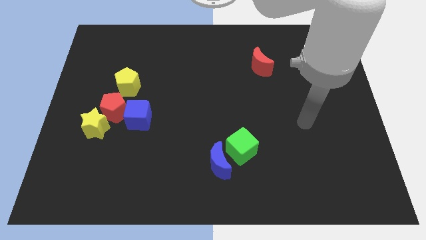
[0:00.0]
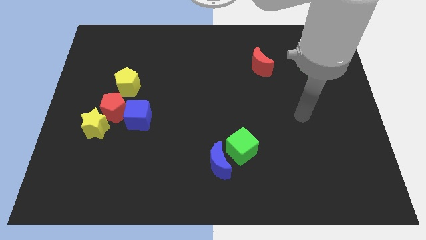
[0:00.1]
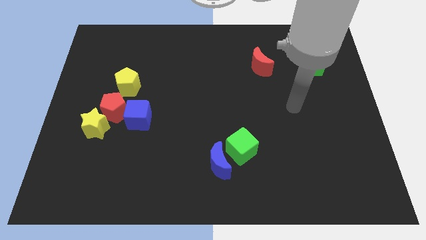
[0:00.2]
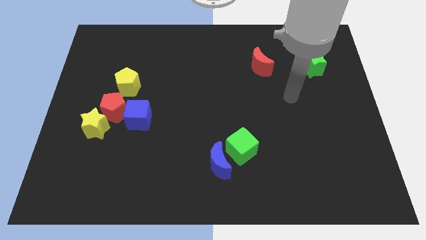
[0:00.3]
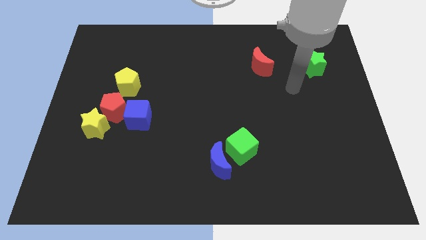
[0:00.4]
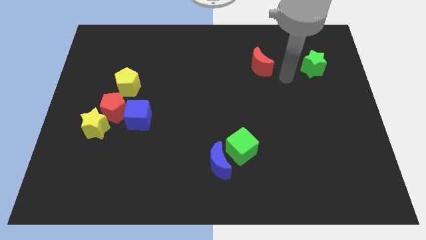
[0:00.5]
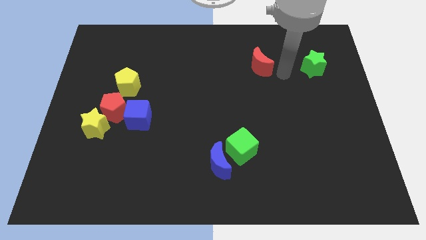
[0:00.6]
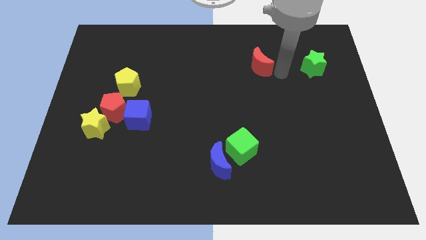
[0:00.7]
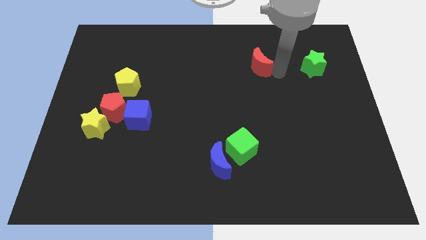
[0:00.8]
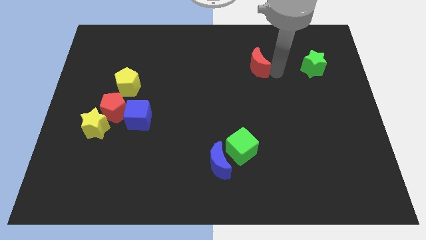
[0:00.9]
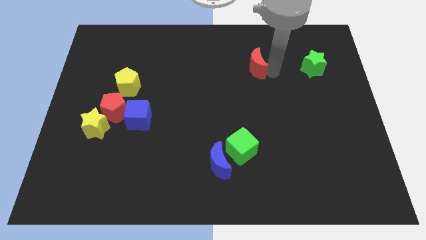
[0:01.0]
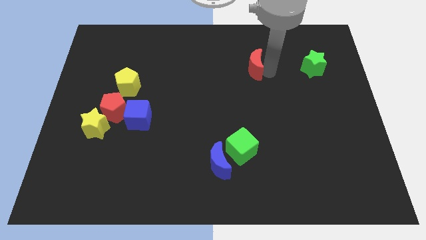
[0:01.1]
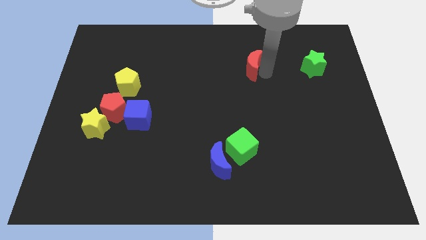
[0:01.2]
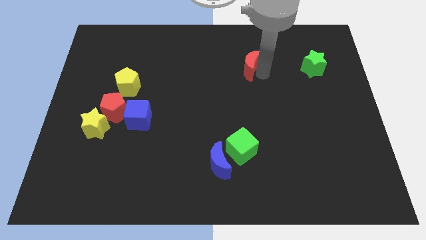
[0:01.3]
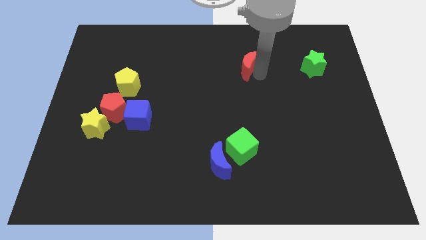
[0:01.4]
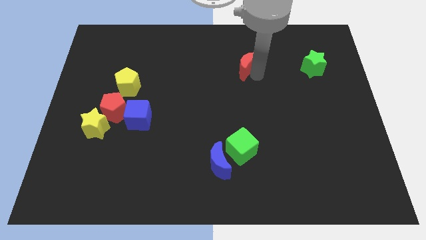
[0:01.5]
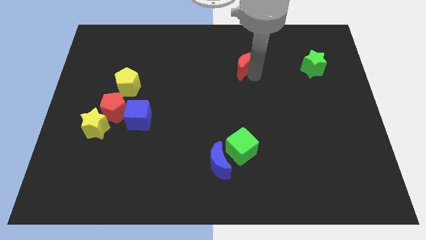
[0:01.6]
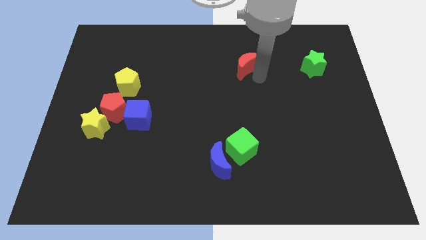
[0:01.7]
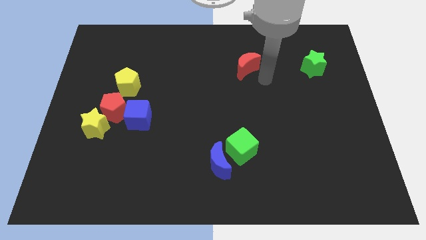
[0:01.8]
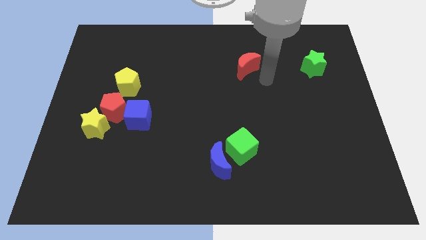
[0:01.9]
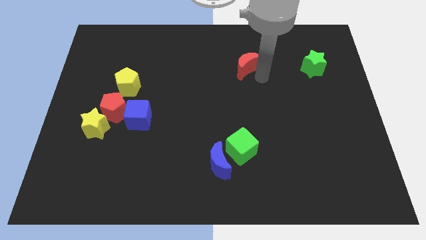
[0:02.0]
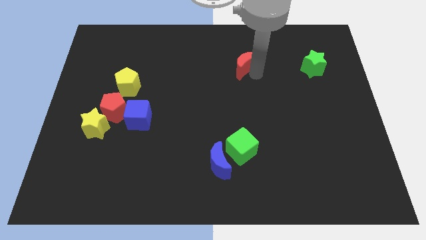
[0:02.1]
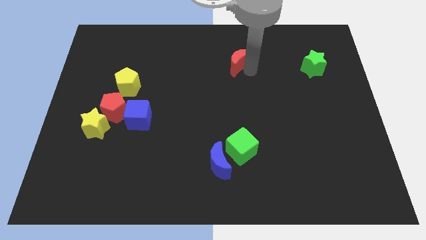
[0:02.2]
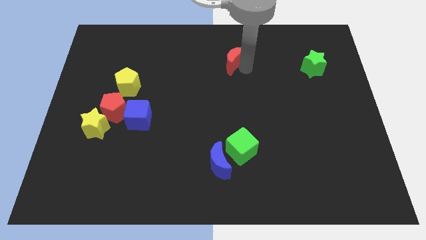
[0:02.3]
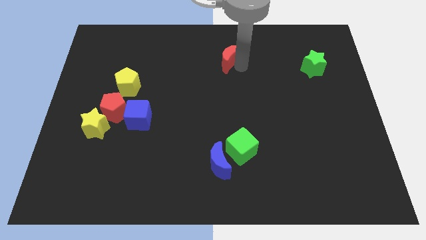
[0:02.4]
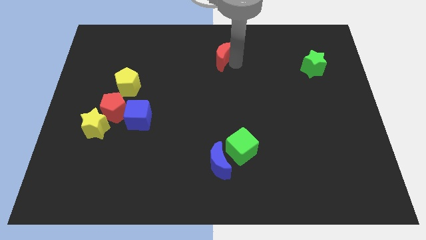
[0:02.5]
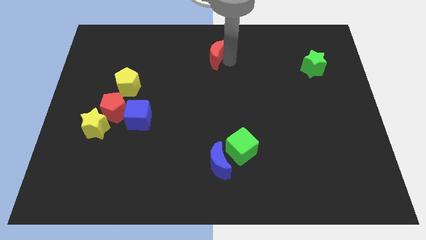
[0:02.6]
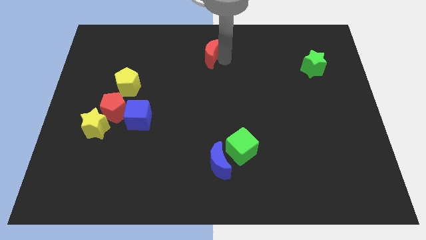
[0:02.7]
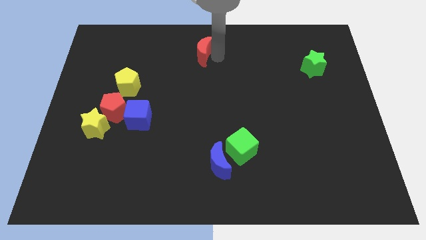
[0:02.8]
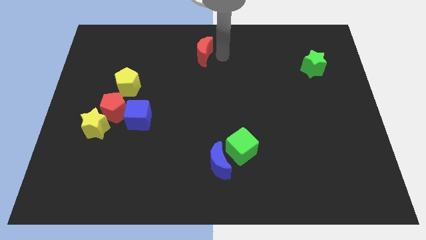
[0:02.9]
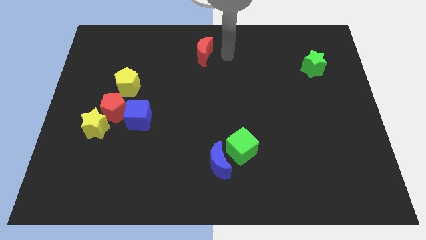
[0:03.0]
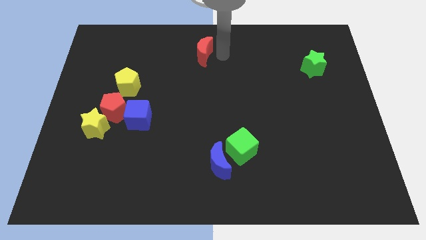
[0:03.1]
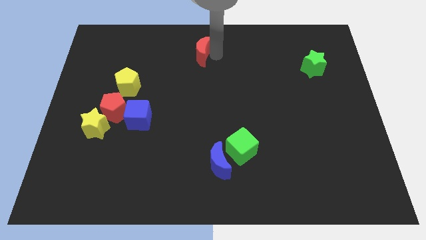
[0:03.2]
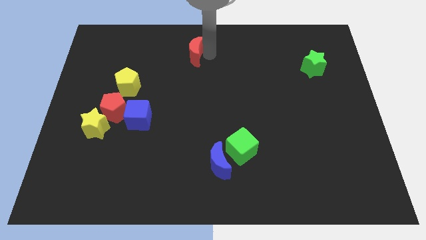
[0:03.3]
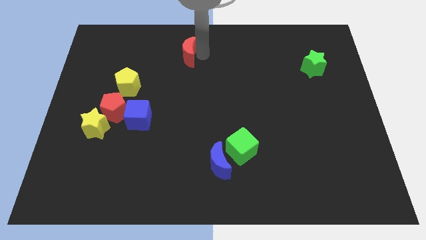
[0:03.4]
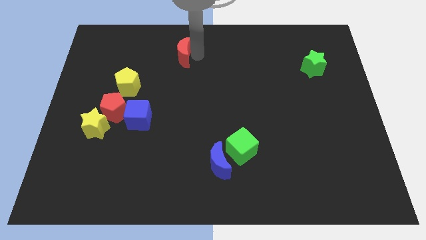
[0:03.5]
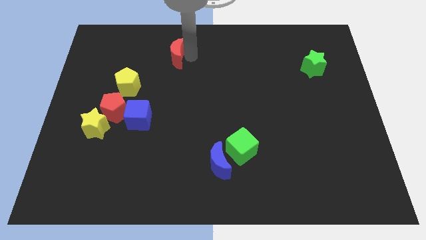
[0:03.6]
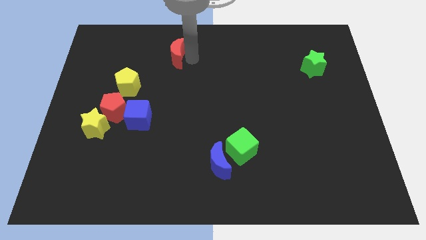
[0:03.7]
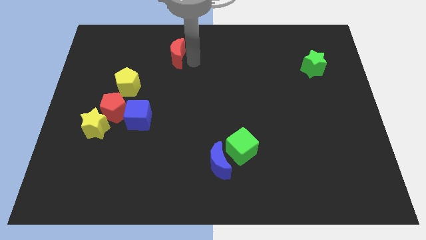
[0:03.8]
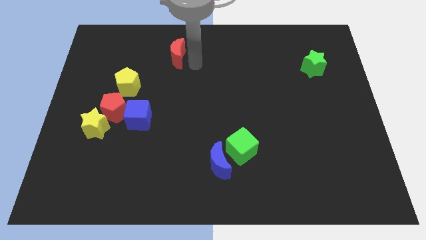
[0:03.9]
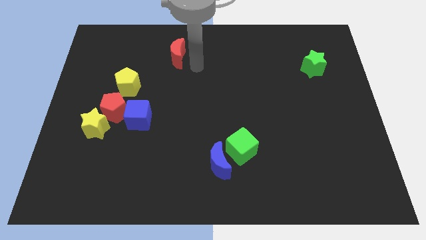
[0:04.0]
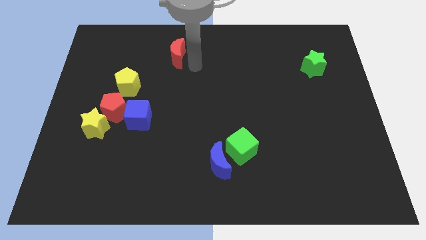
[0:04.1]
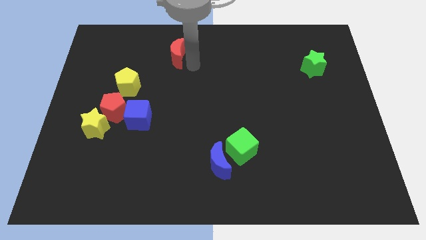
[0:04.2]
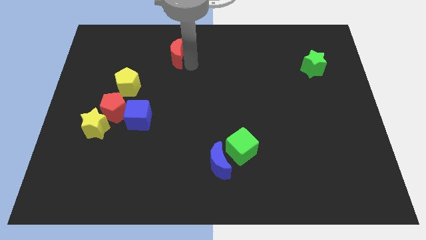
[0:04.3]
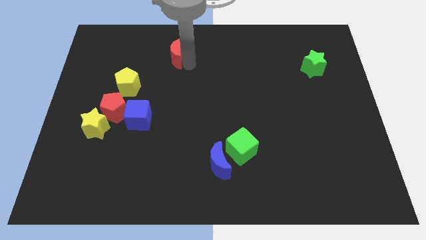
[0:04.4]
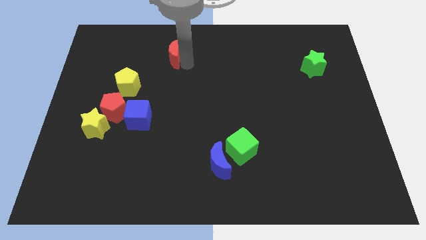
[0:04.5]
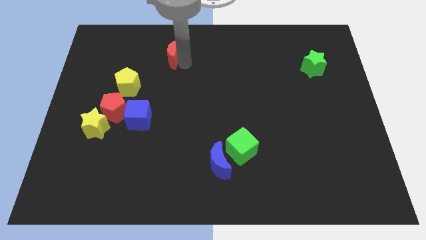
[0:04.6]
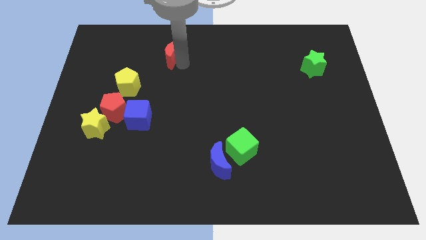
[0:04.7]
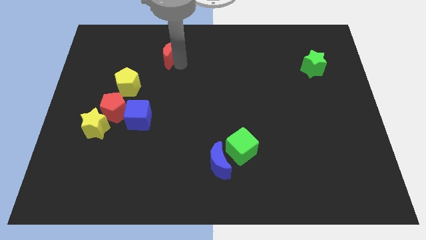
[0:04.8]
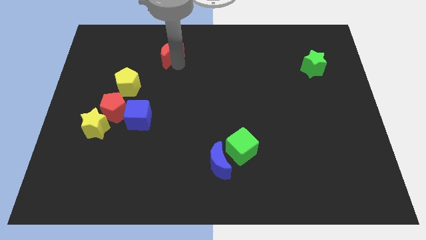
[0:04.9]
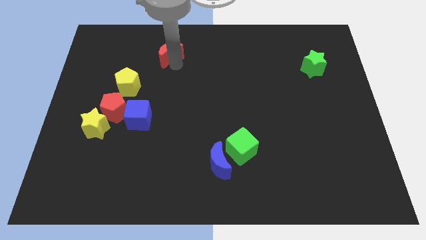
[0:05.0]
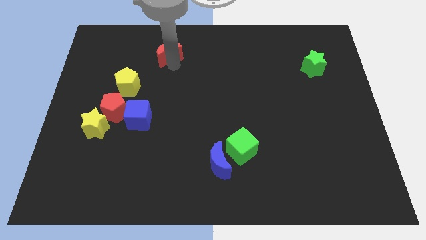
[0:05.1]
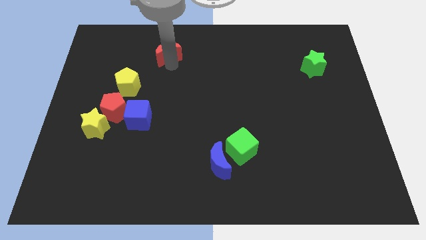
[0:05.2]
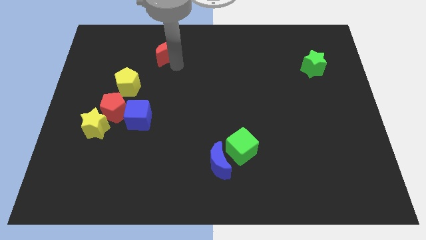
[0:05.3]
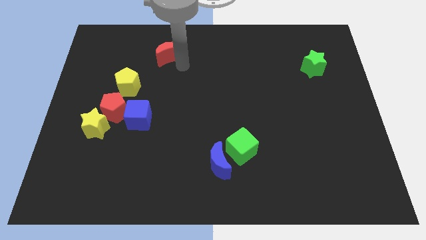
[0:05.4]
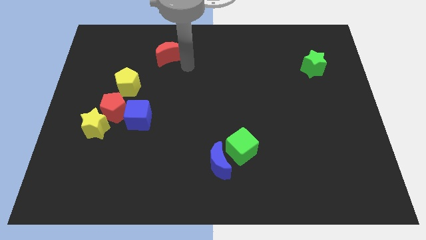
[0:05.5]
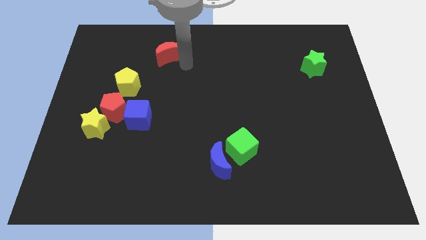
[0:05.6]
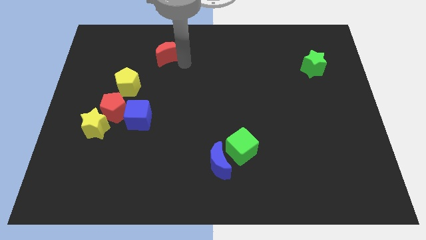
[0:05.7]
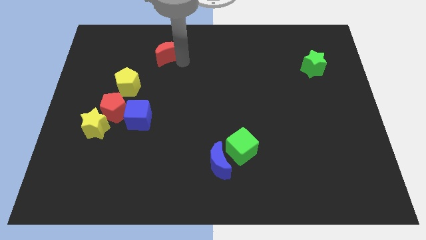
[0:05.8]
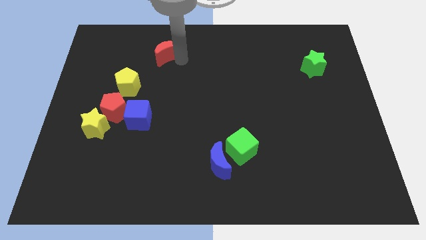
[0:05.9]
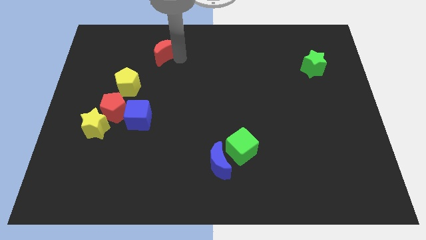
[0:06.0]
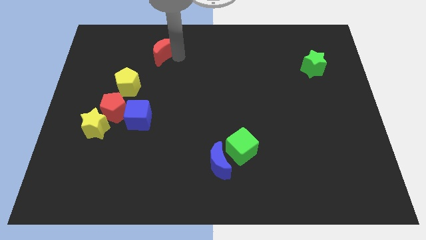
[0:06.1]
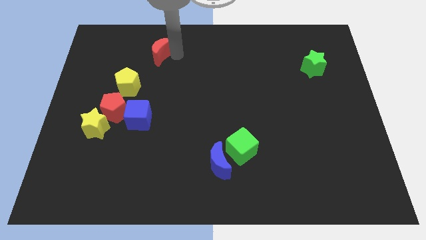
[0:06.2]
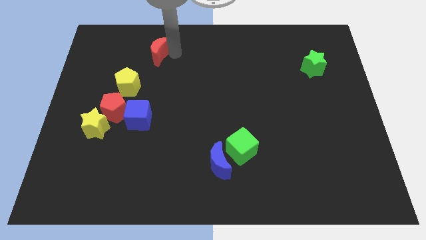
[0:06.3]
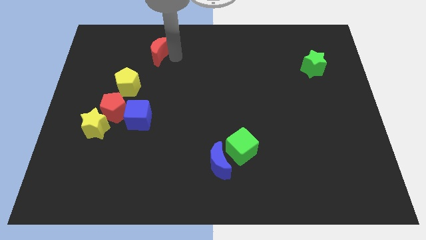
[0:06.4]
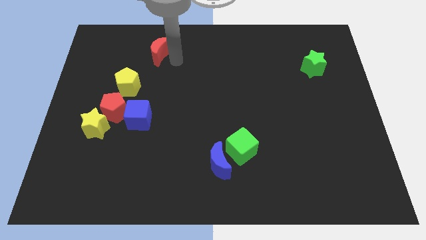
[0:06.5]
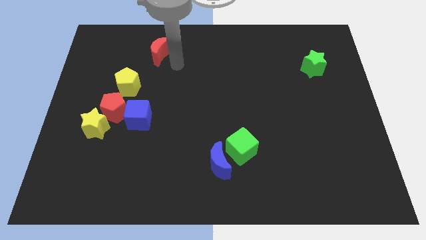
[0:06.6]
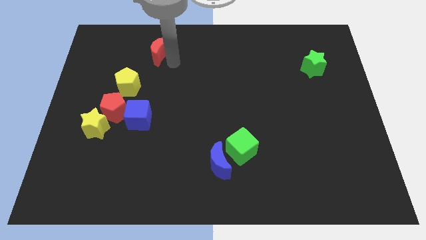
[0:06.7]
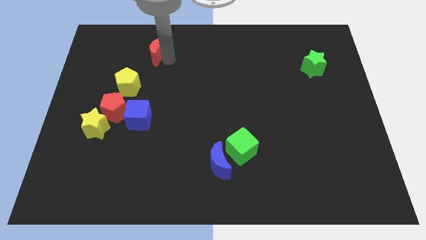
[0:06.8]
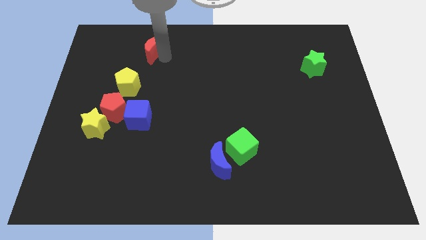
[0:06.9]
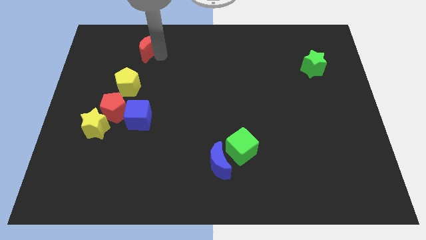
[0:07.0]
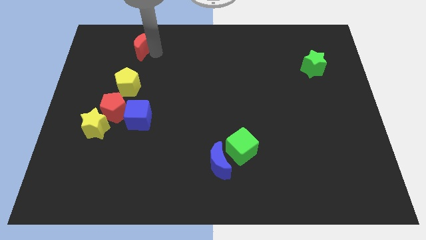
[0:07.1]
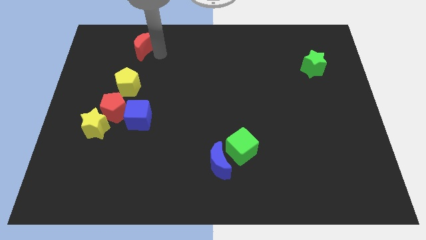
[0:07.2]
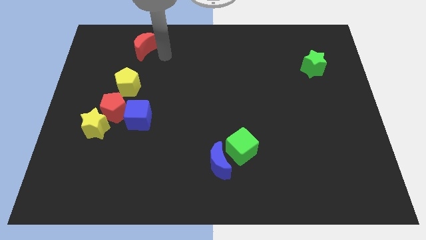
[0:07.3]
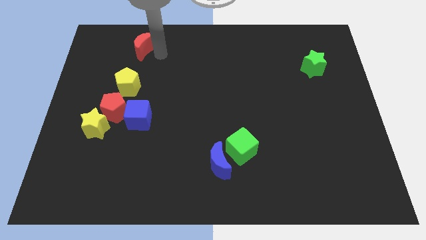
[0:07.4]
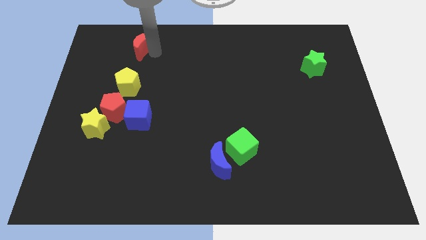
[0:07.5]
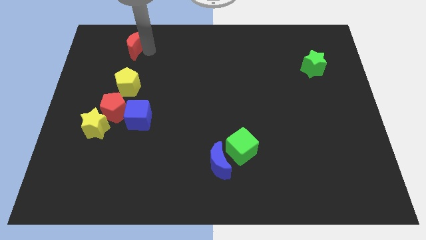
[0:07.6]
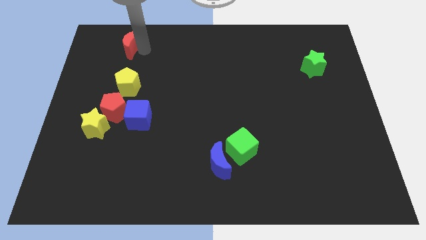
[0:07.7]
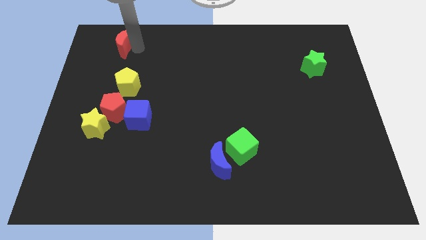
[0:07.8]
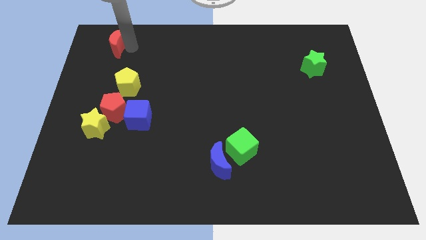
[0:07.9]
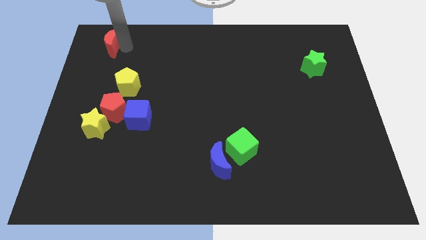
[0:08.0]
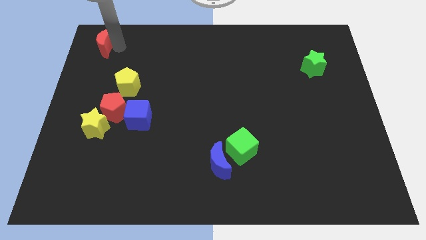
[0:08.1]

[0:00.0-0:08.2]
slide the red moon to the upper left corner
